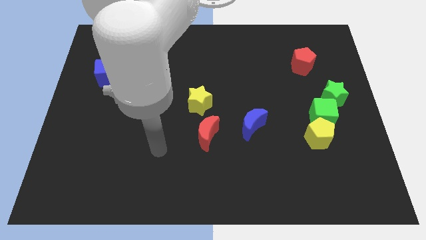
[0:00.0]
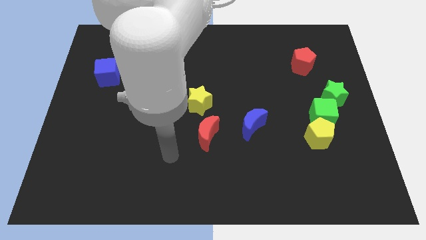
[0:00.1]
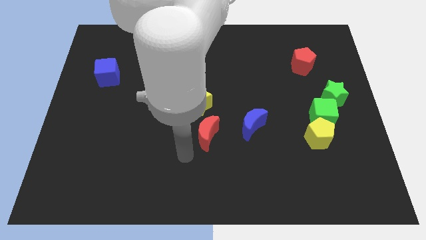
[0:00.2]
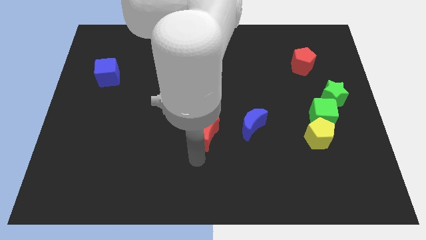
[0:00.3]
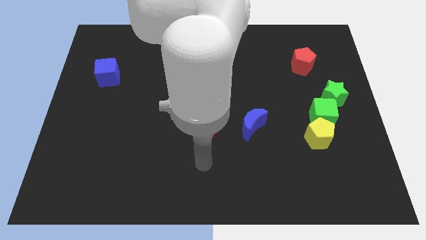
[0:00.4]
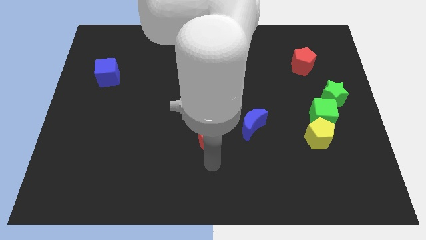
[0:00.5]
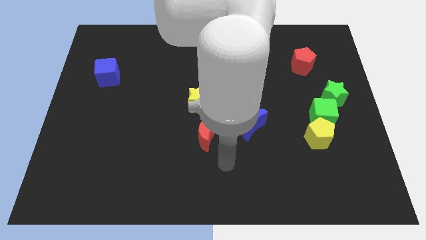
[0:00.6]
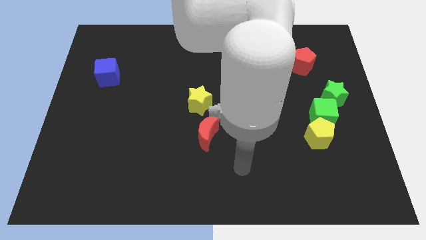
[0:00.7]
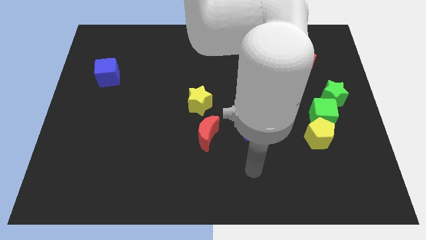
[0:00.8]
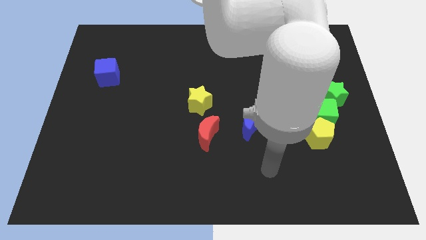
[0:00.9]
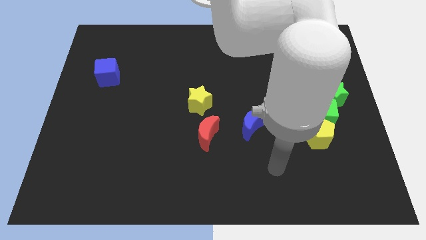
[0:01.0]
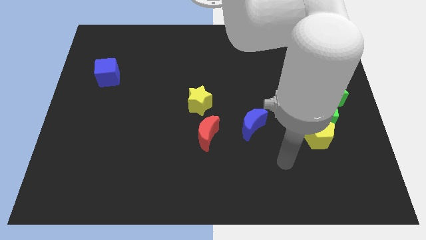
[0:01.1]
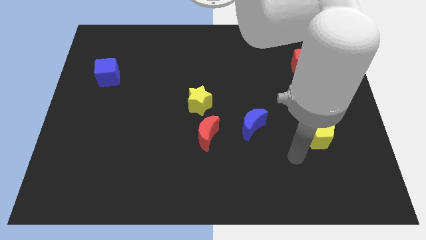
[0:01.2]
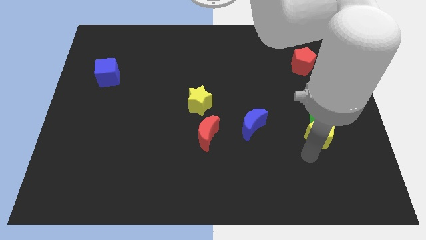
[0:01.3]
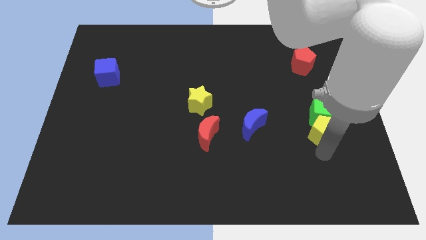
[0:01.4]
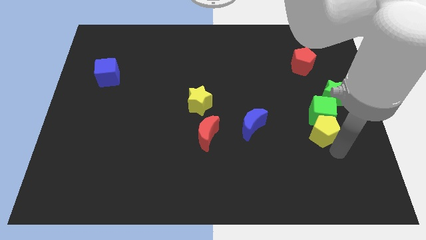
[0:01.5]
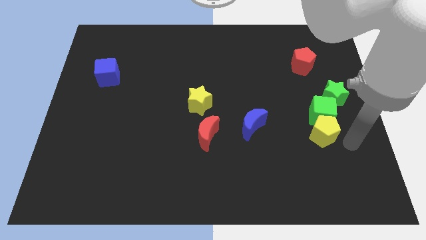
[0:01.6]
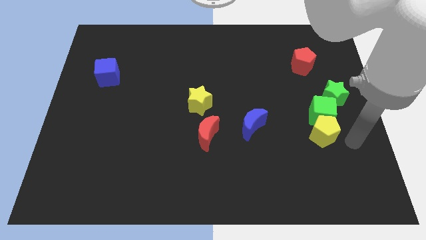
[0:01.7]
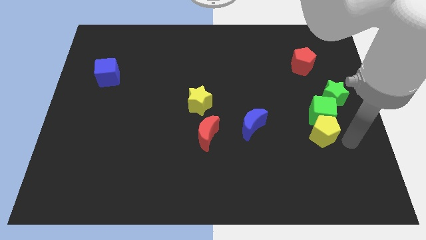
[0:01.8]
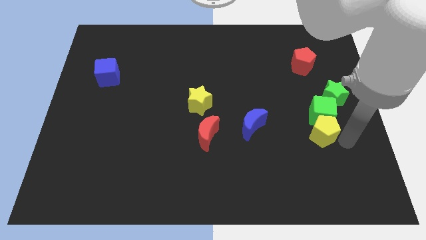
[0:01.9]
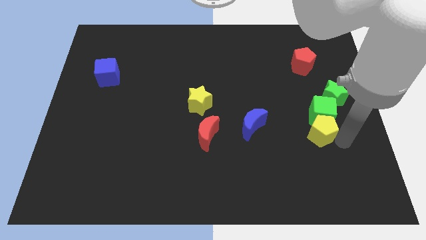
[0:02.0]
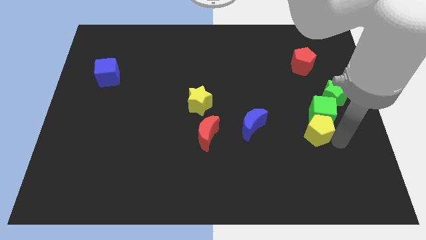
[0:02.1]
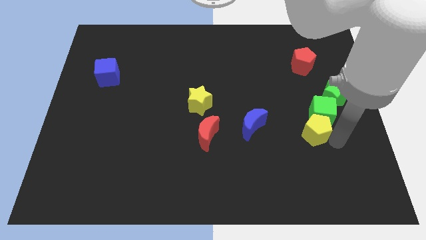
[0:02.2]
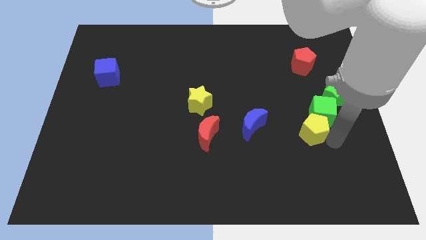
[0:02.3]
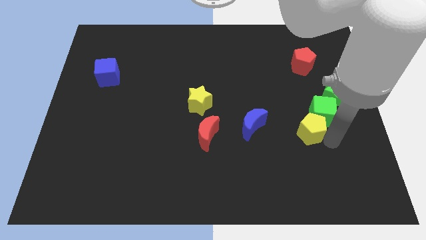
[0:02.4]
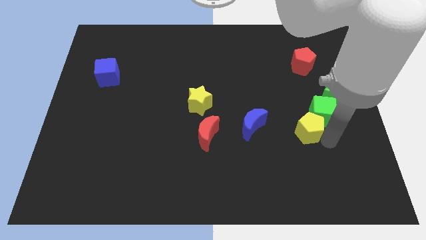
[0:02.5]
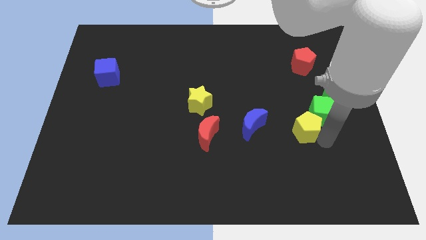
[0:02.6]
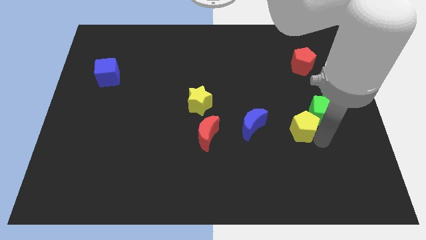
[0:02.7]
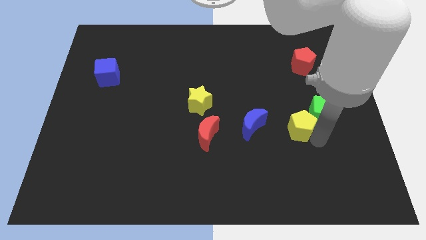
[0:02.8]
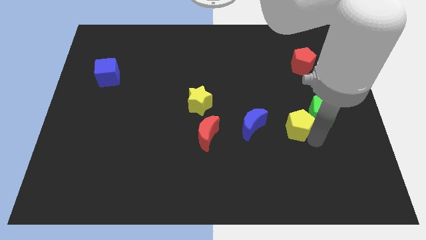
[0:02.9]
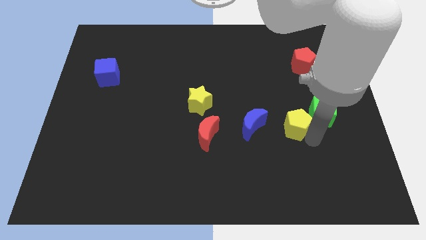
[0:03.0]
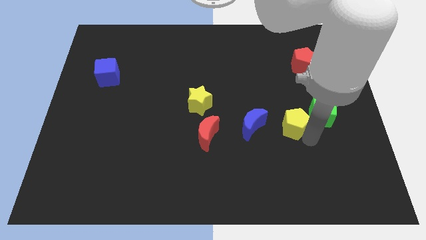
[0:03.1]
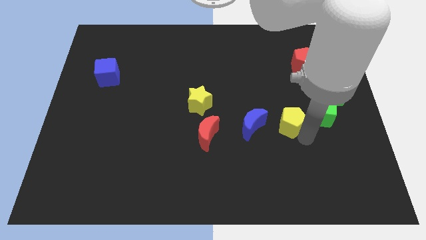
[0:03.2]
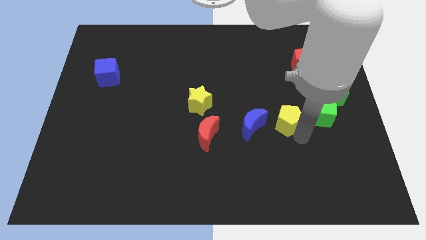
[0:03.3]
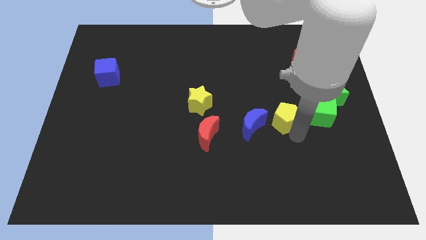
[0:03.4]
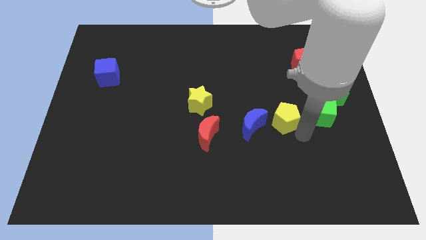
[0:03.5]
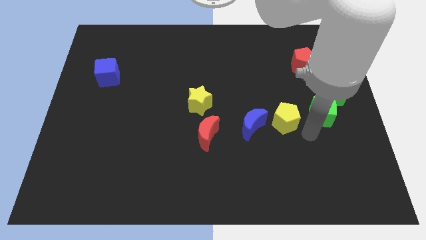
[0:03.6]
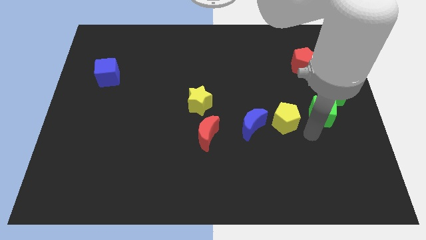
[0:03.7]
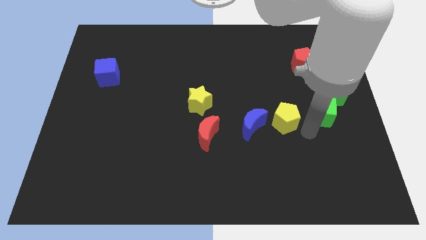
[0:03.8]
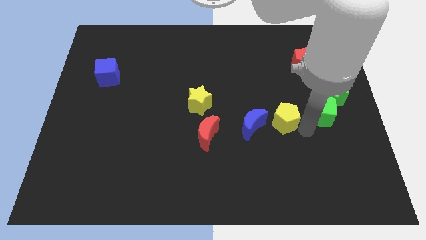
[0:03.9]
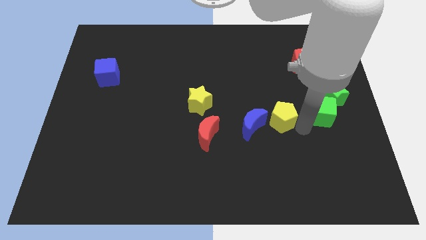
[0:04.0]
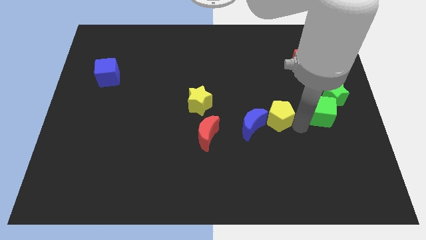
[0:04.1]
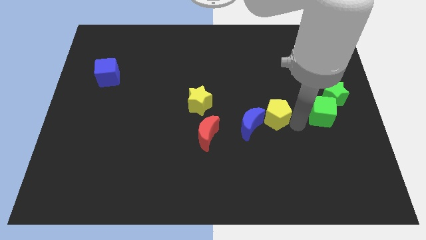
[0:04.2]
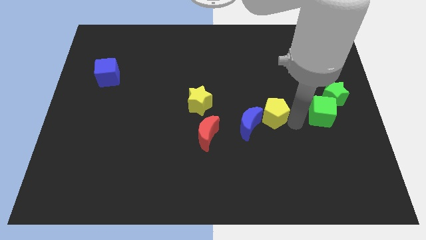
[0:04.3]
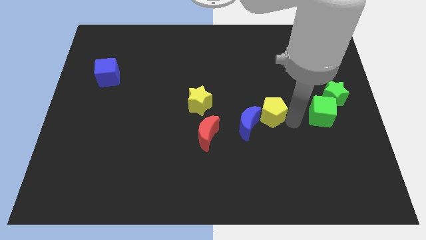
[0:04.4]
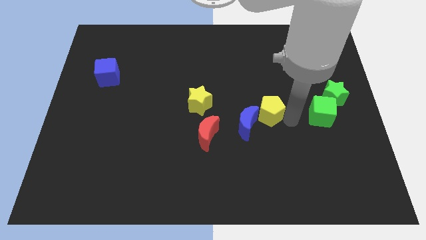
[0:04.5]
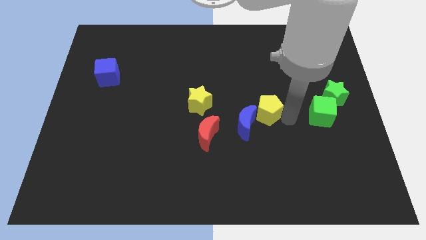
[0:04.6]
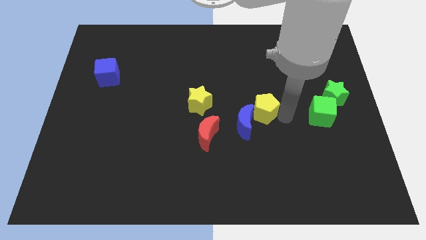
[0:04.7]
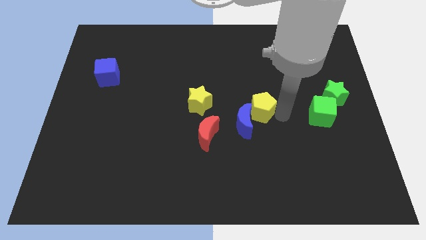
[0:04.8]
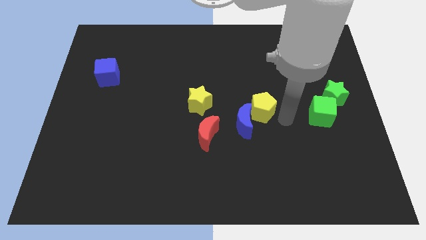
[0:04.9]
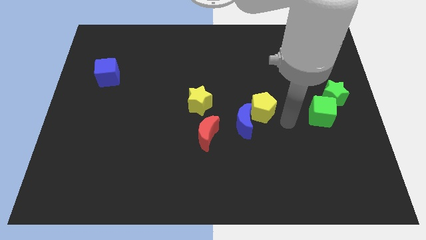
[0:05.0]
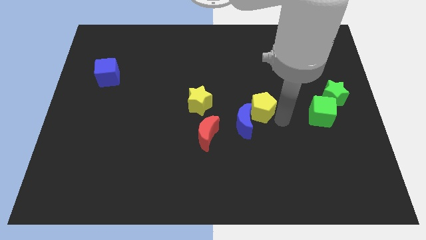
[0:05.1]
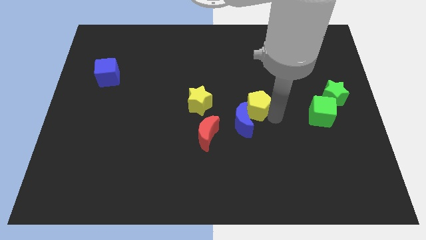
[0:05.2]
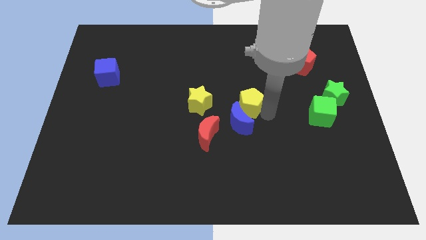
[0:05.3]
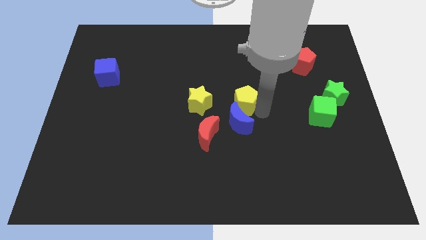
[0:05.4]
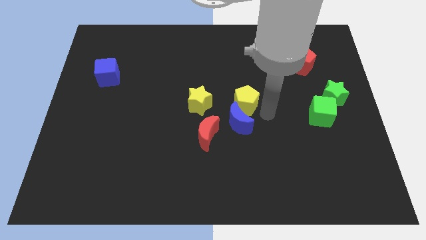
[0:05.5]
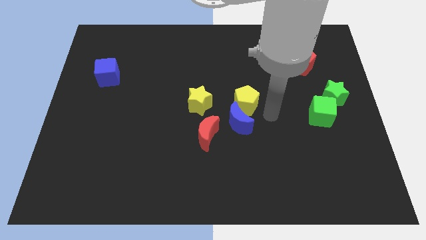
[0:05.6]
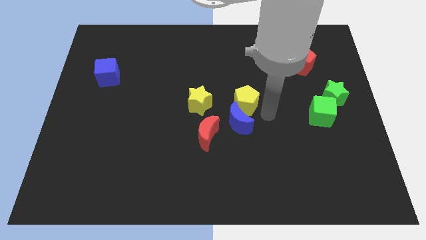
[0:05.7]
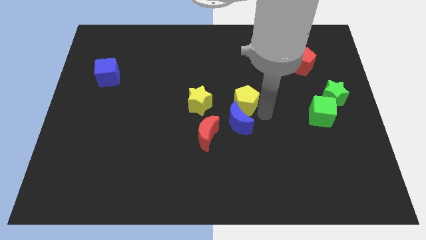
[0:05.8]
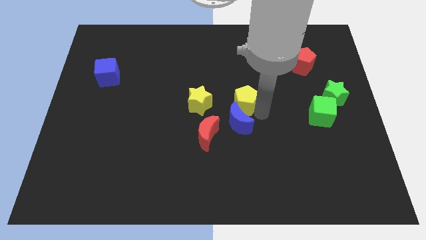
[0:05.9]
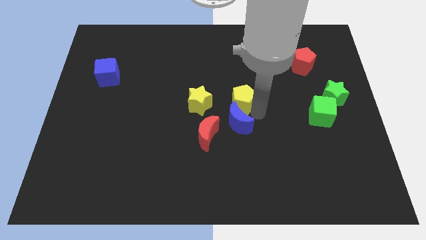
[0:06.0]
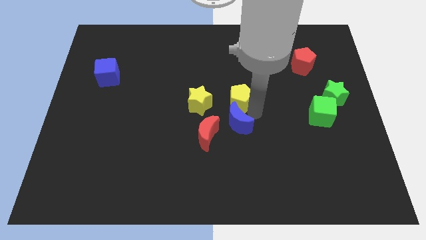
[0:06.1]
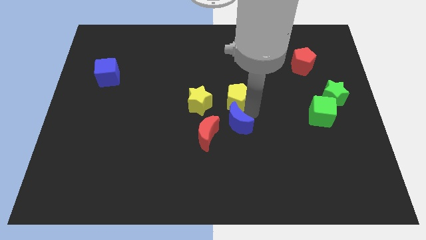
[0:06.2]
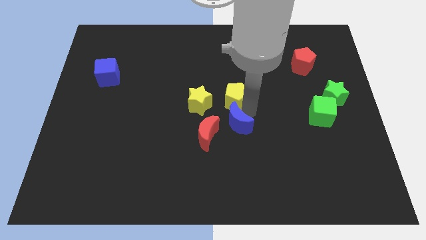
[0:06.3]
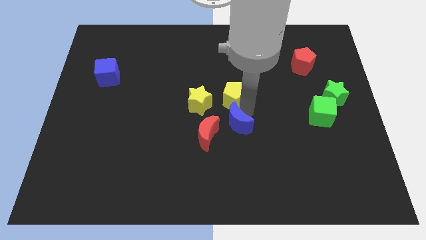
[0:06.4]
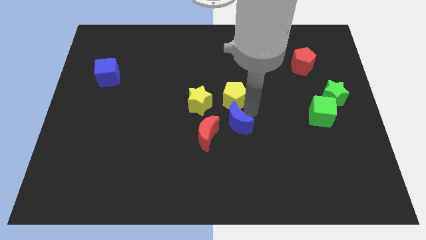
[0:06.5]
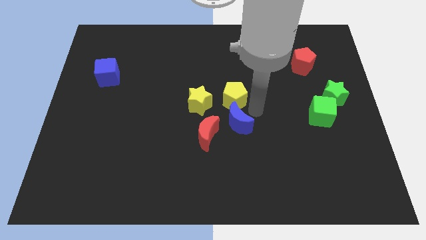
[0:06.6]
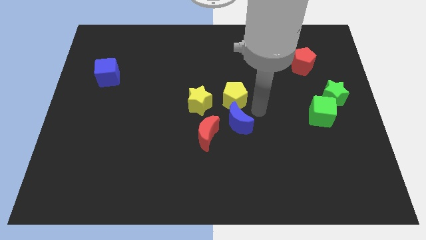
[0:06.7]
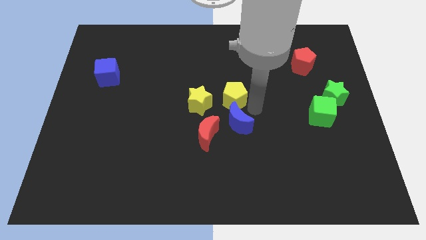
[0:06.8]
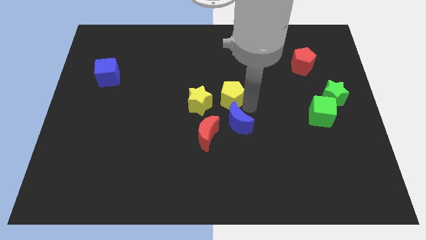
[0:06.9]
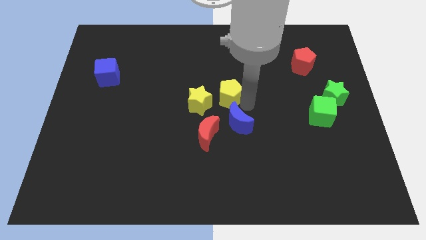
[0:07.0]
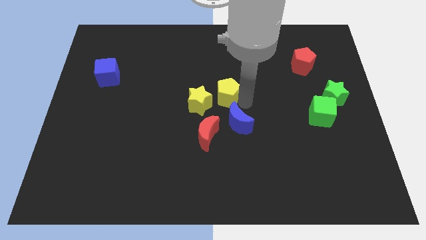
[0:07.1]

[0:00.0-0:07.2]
push the yellow pentagon to the top side of the red moon

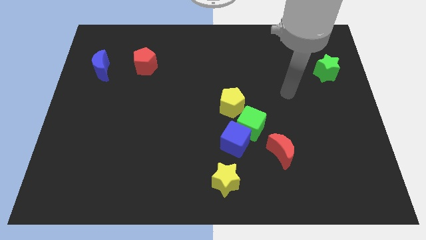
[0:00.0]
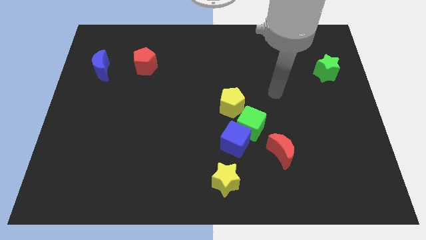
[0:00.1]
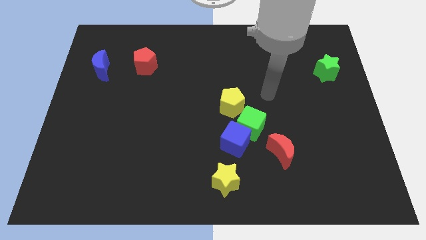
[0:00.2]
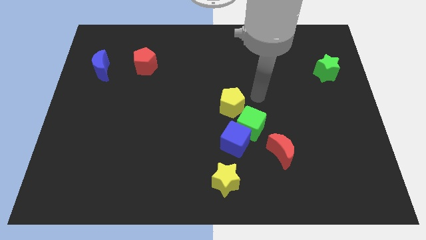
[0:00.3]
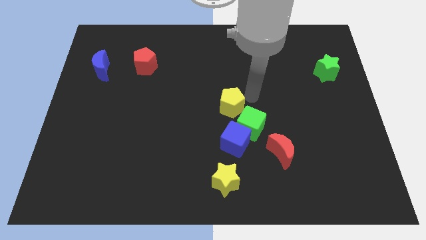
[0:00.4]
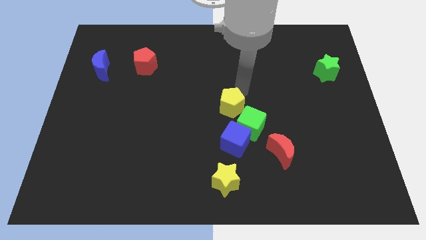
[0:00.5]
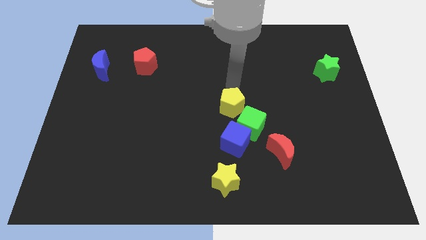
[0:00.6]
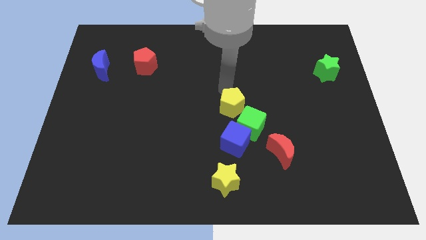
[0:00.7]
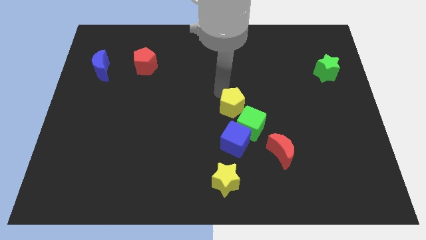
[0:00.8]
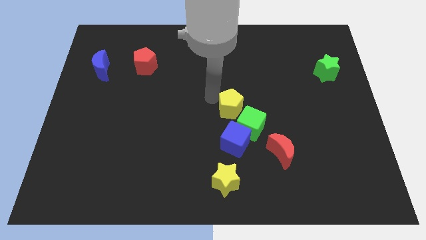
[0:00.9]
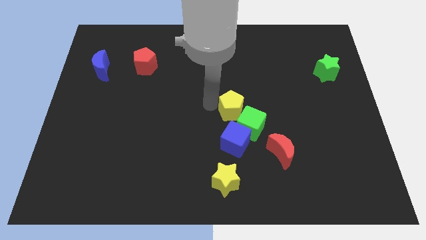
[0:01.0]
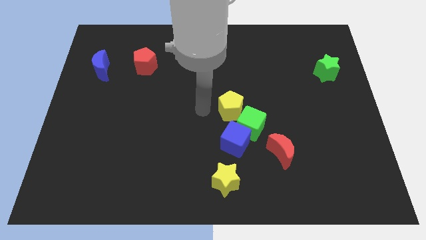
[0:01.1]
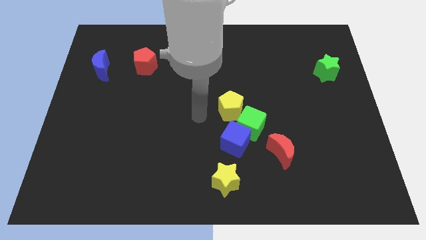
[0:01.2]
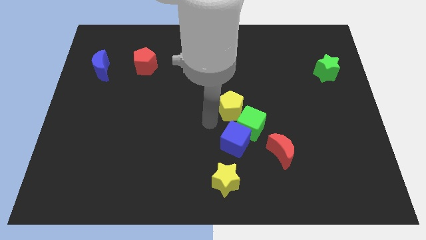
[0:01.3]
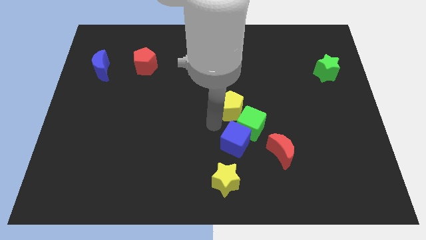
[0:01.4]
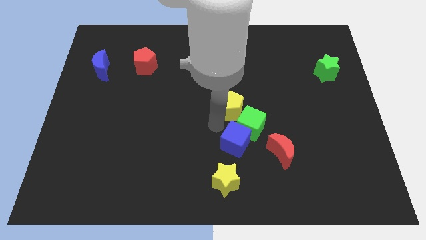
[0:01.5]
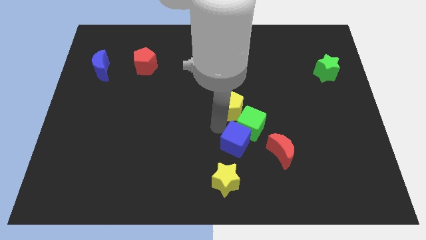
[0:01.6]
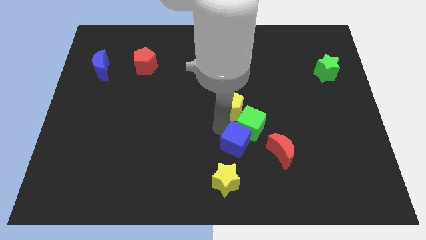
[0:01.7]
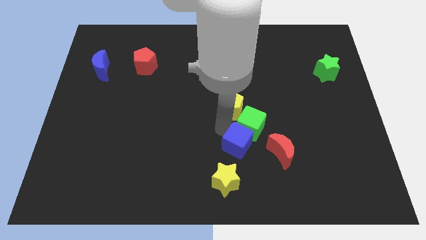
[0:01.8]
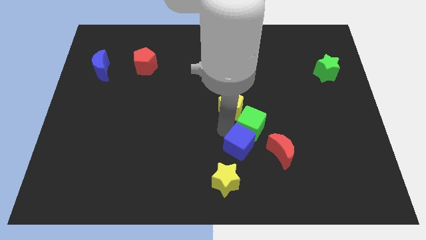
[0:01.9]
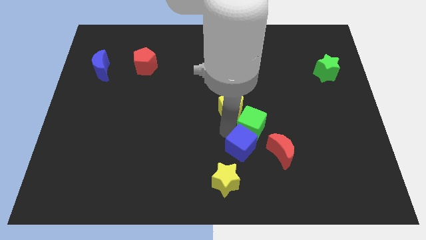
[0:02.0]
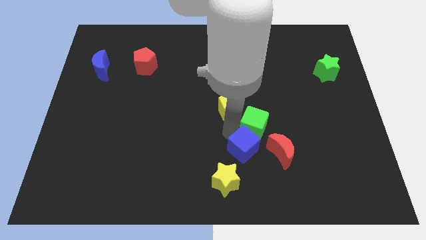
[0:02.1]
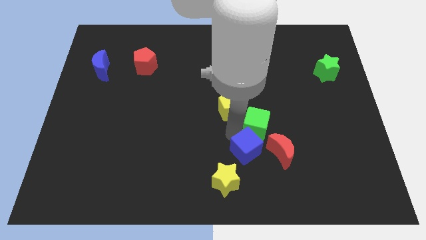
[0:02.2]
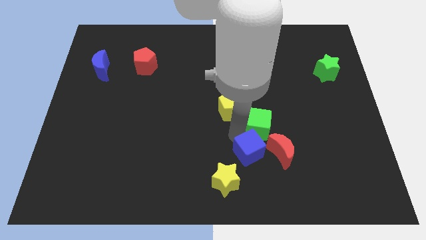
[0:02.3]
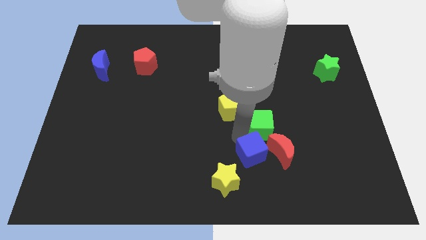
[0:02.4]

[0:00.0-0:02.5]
slide the blue cube to the bottom left side of the red moon
